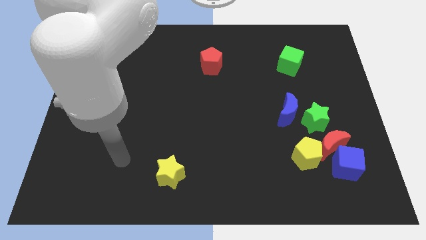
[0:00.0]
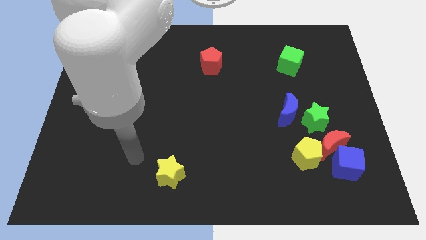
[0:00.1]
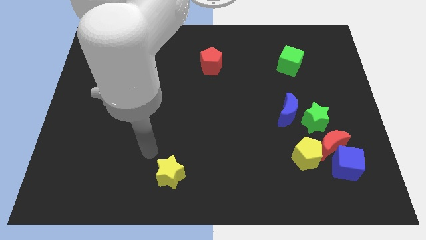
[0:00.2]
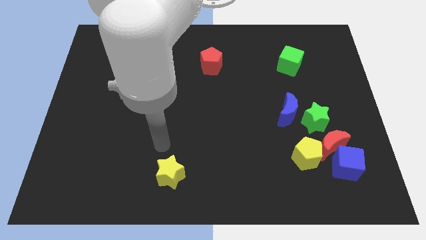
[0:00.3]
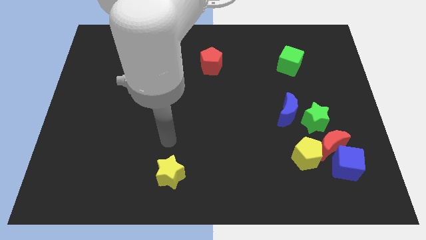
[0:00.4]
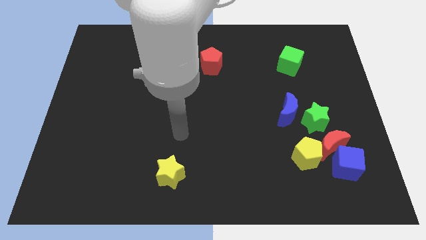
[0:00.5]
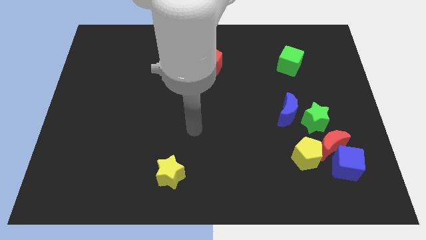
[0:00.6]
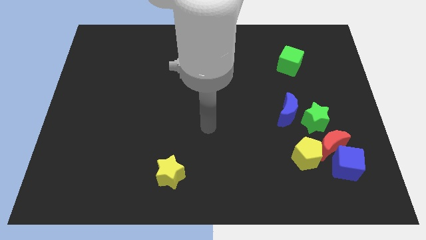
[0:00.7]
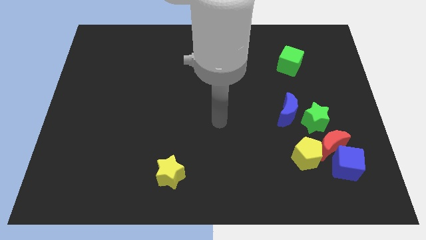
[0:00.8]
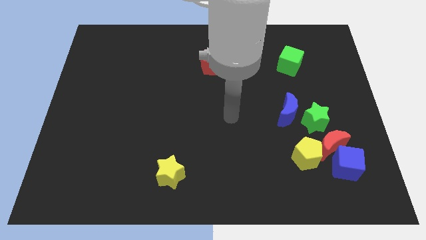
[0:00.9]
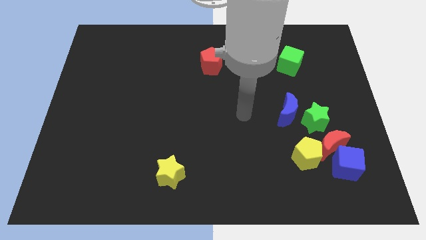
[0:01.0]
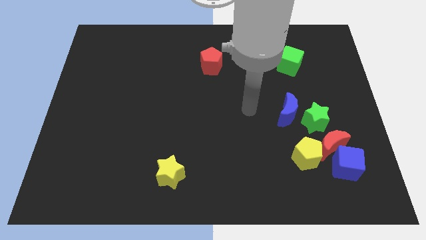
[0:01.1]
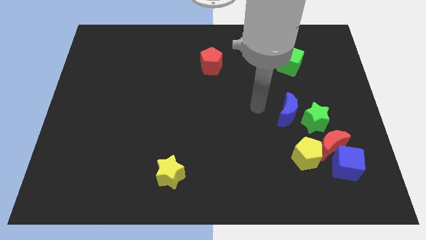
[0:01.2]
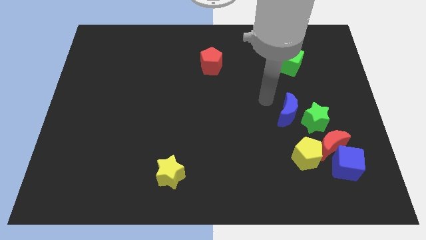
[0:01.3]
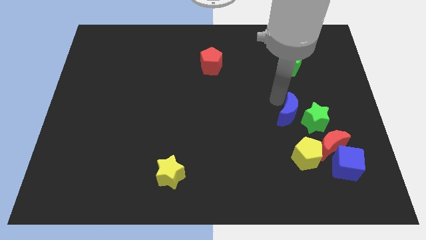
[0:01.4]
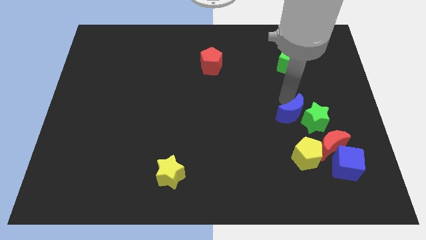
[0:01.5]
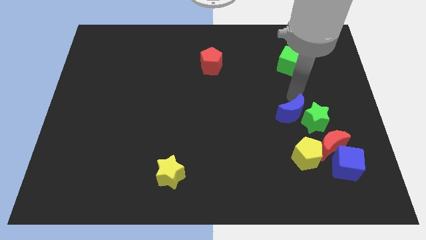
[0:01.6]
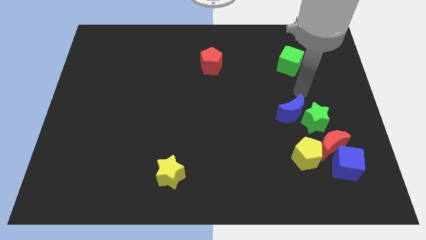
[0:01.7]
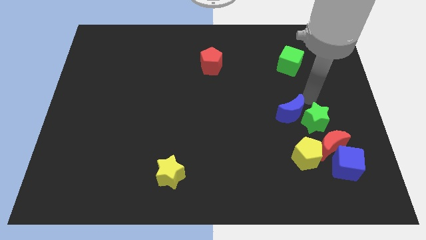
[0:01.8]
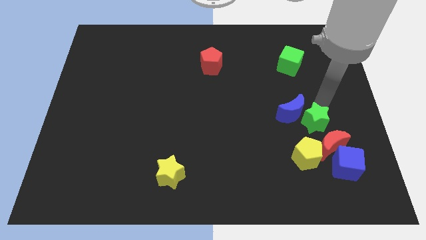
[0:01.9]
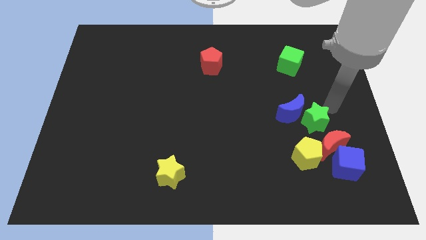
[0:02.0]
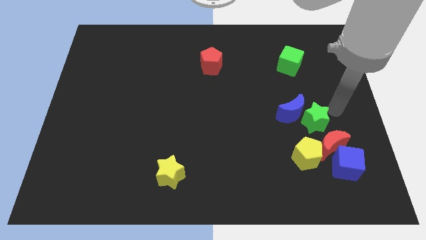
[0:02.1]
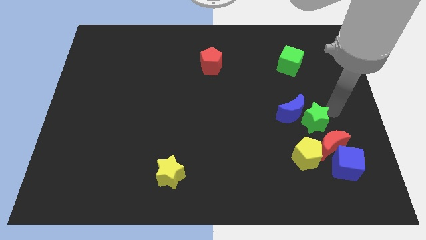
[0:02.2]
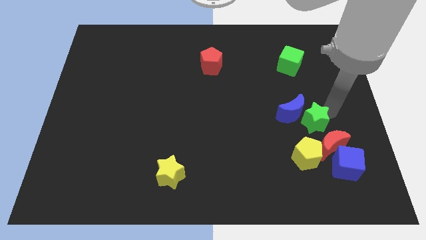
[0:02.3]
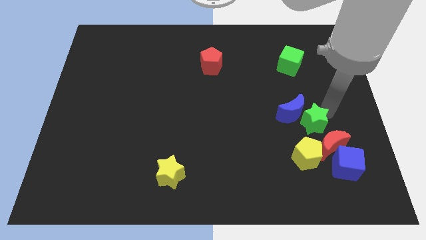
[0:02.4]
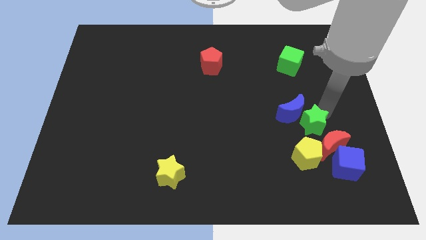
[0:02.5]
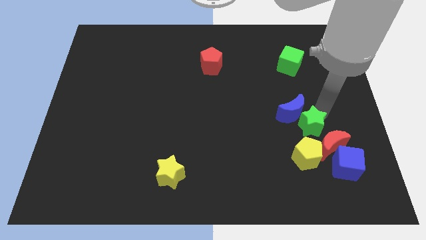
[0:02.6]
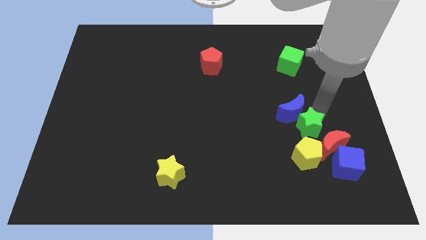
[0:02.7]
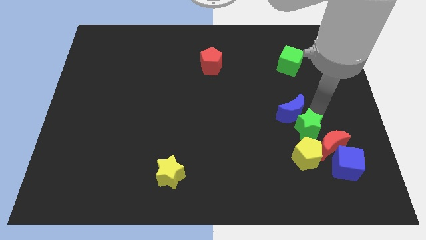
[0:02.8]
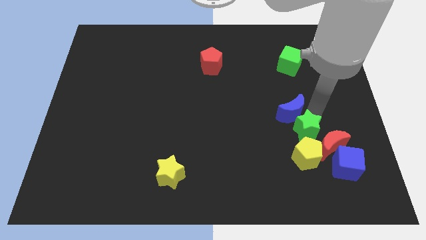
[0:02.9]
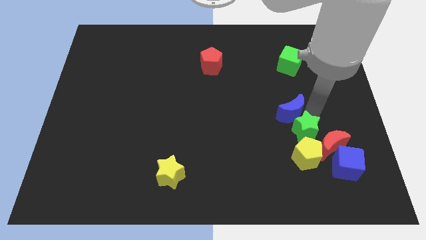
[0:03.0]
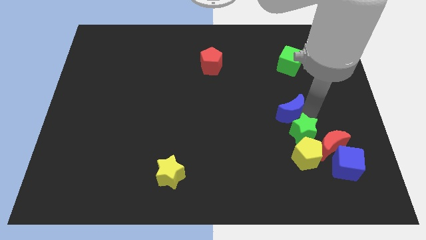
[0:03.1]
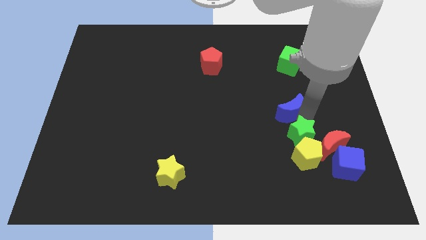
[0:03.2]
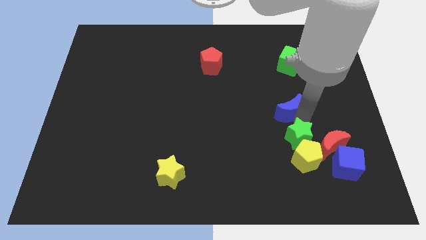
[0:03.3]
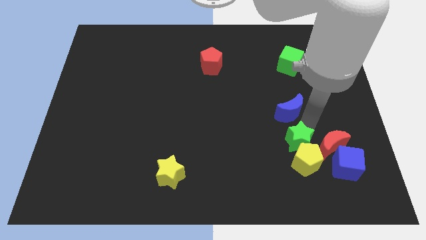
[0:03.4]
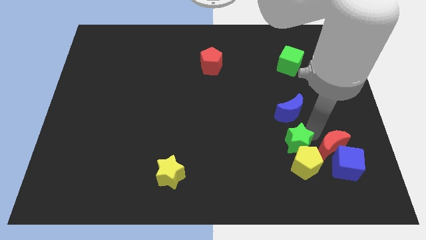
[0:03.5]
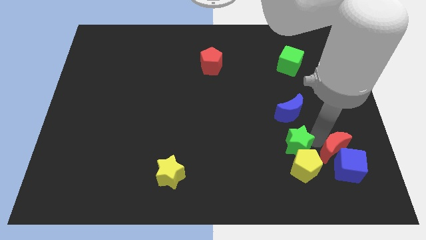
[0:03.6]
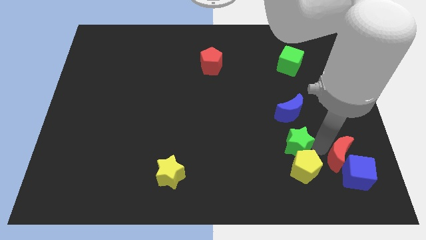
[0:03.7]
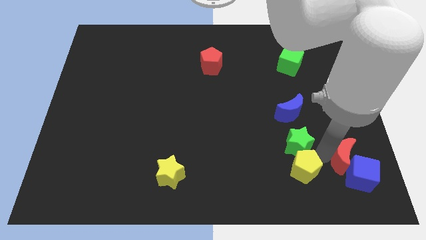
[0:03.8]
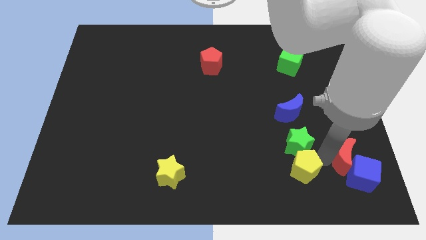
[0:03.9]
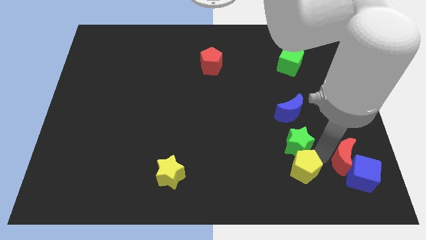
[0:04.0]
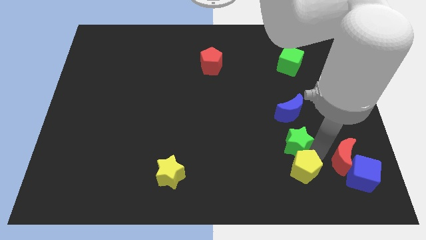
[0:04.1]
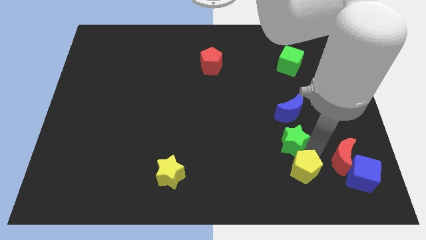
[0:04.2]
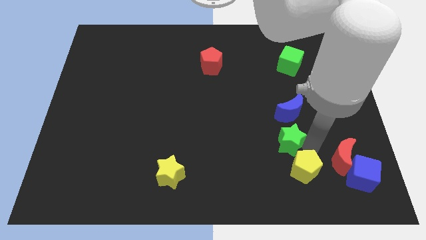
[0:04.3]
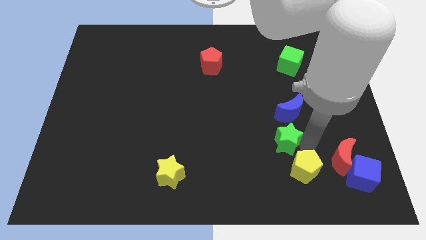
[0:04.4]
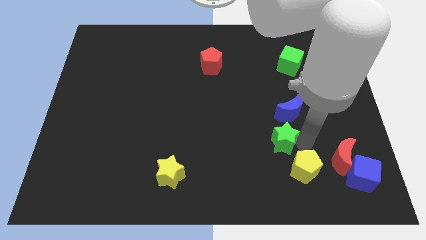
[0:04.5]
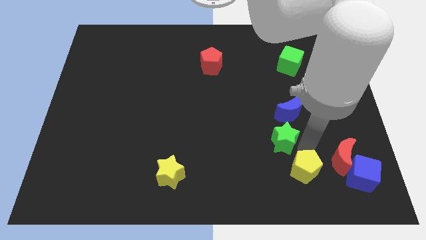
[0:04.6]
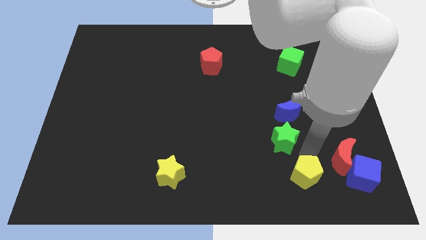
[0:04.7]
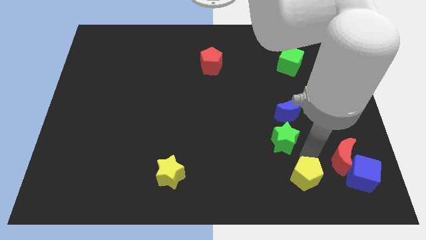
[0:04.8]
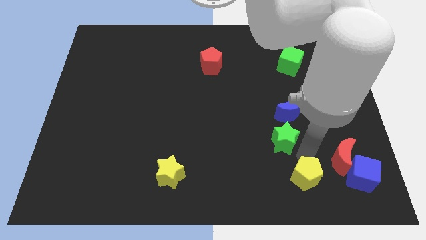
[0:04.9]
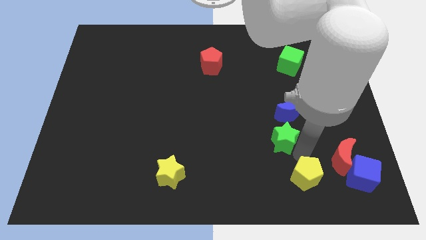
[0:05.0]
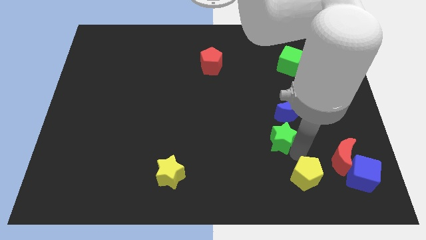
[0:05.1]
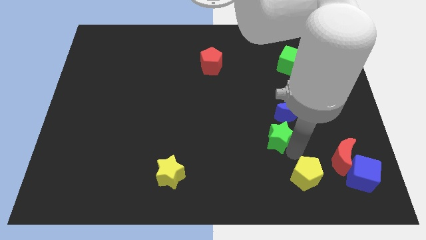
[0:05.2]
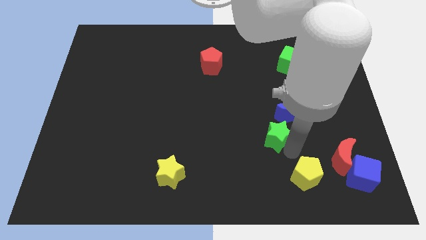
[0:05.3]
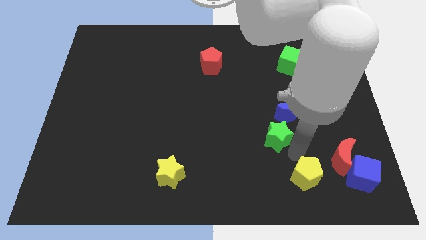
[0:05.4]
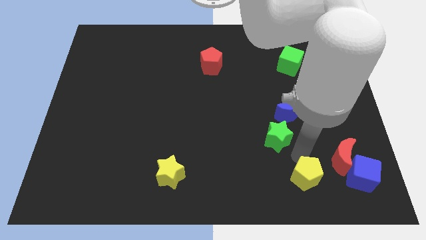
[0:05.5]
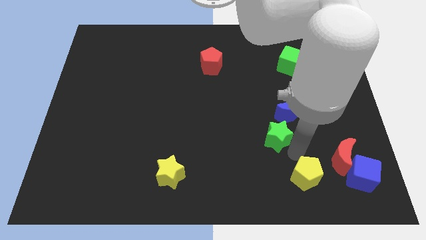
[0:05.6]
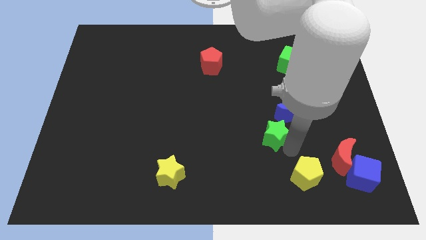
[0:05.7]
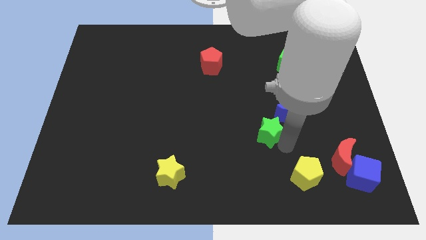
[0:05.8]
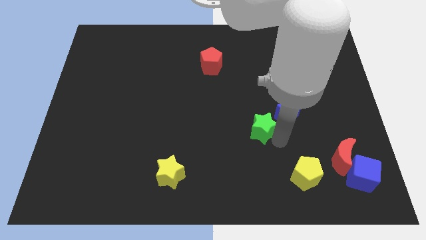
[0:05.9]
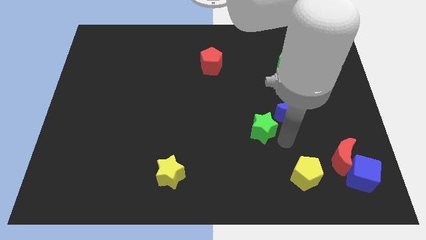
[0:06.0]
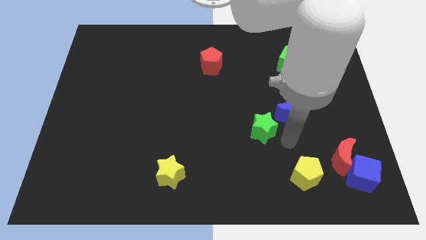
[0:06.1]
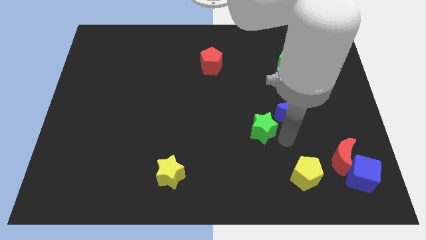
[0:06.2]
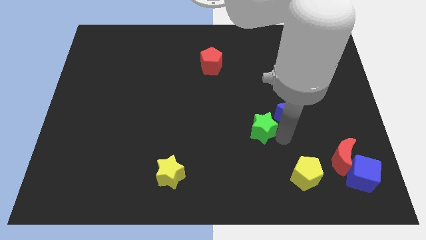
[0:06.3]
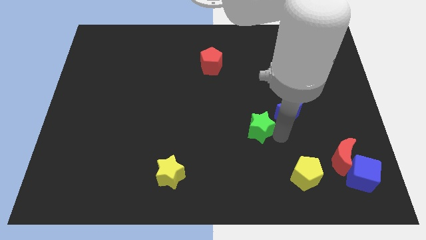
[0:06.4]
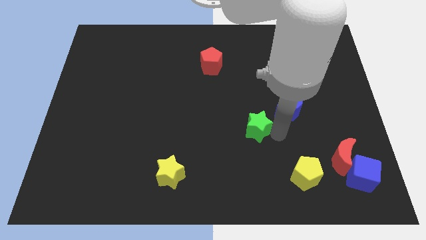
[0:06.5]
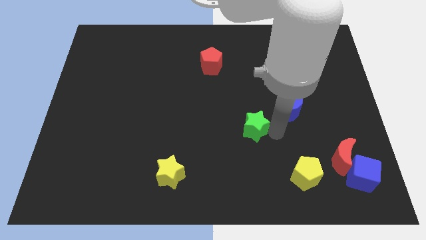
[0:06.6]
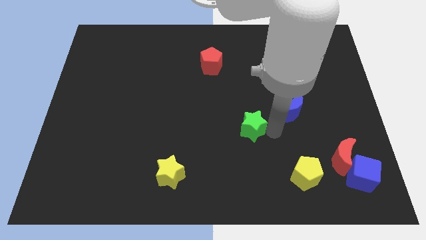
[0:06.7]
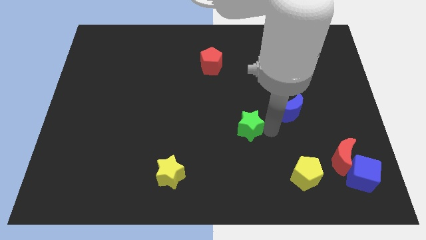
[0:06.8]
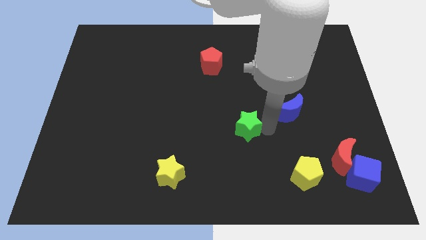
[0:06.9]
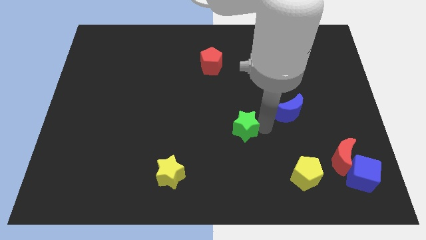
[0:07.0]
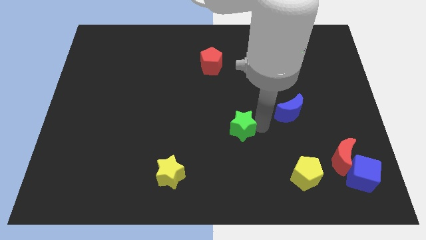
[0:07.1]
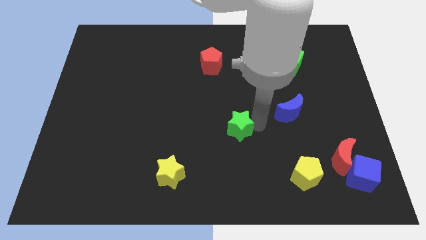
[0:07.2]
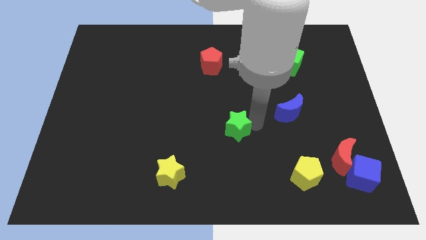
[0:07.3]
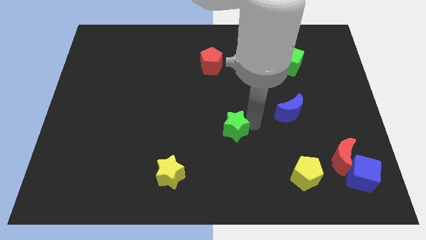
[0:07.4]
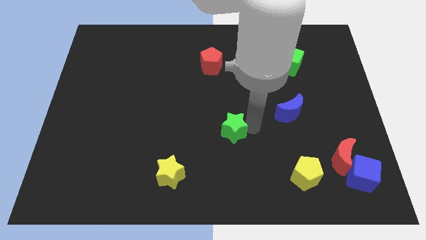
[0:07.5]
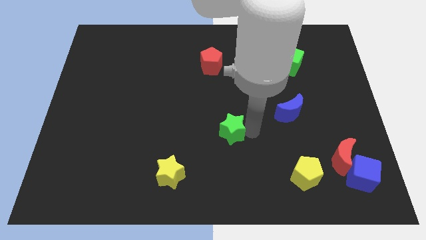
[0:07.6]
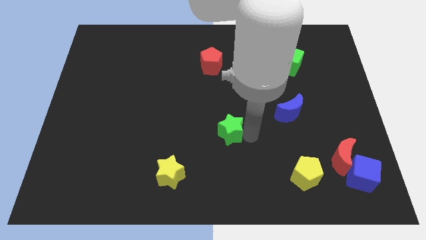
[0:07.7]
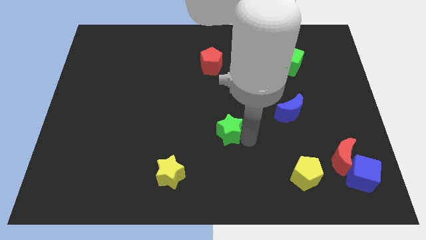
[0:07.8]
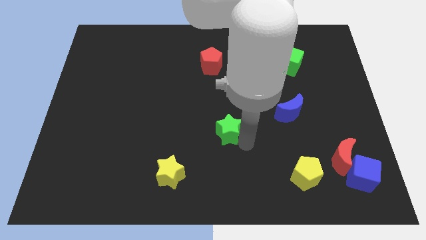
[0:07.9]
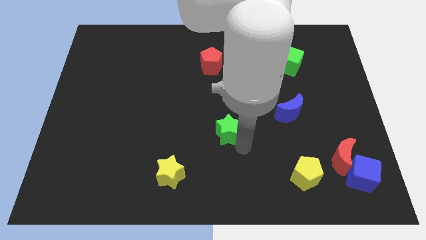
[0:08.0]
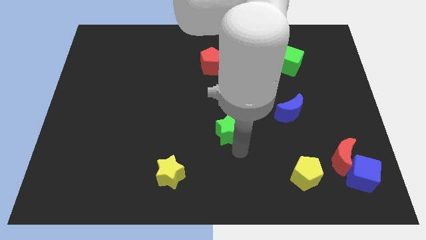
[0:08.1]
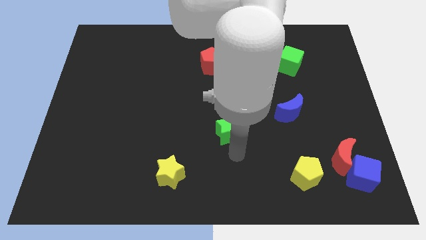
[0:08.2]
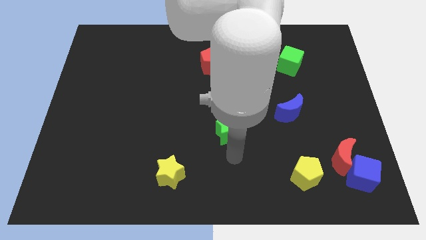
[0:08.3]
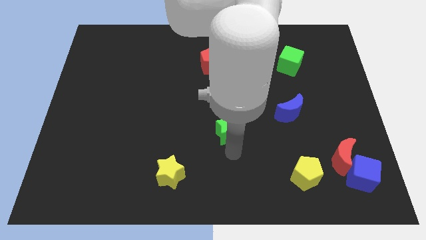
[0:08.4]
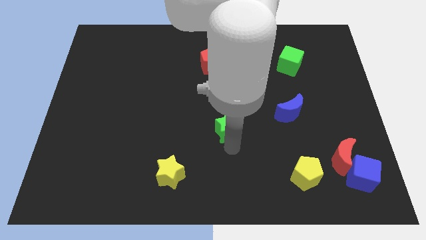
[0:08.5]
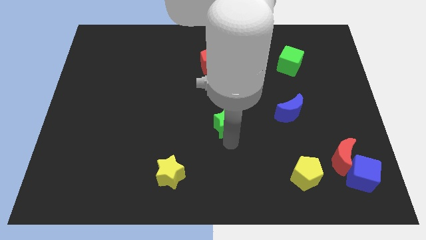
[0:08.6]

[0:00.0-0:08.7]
move the green star to the left
